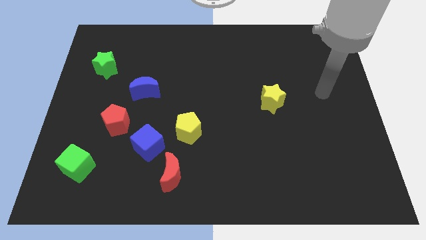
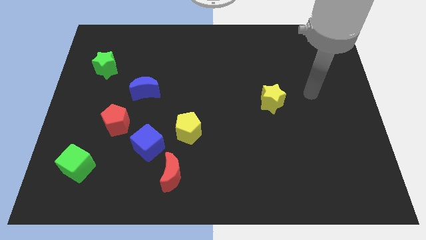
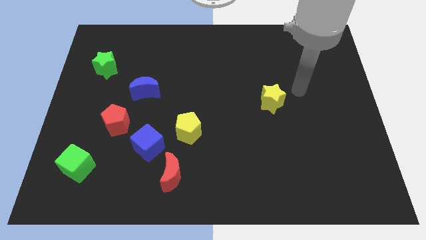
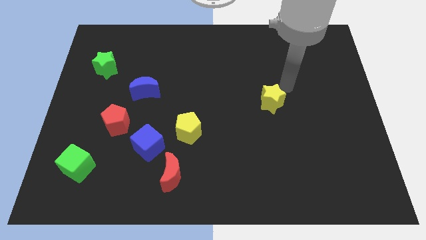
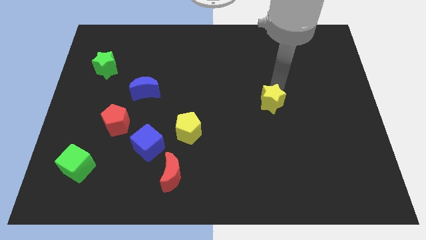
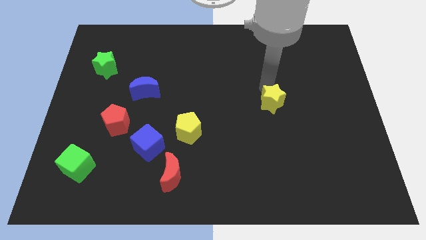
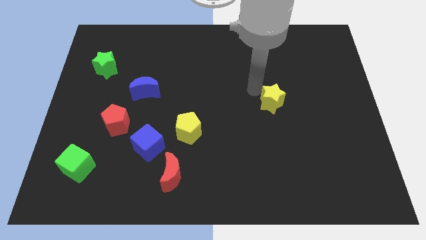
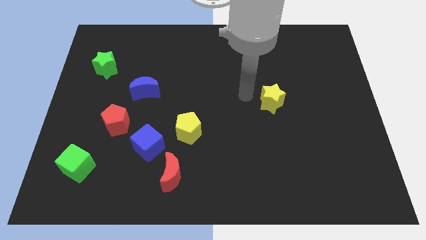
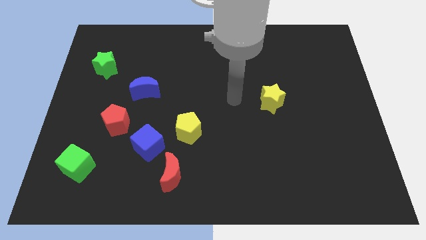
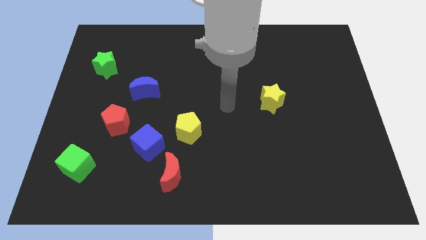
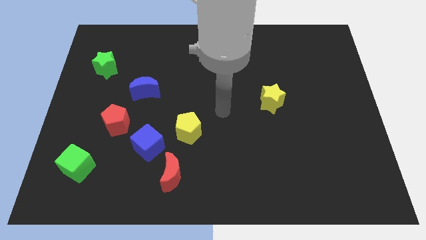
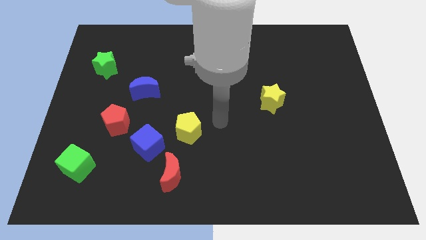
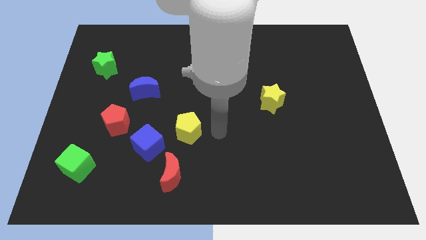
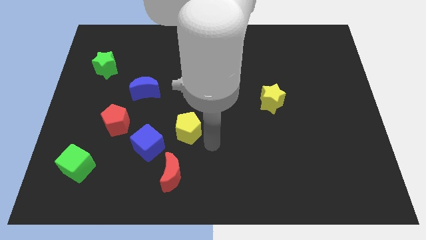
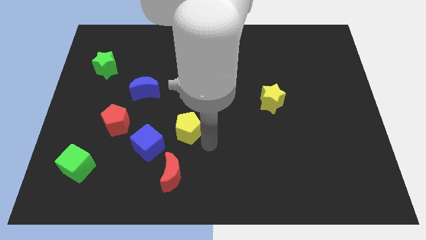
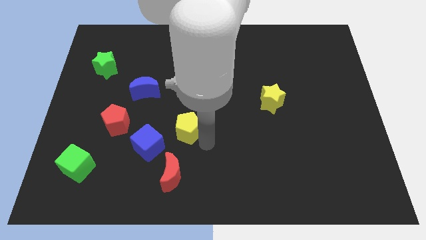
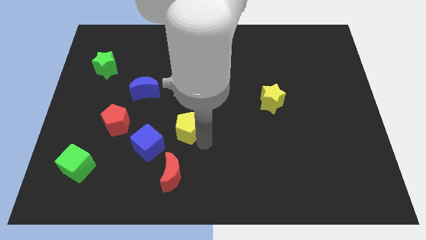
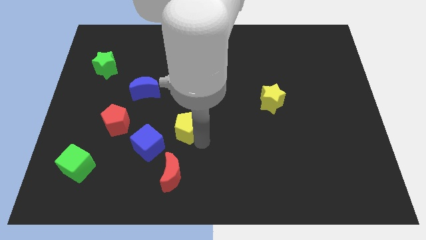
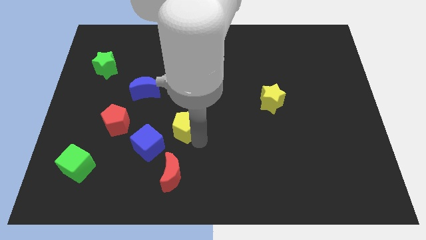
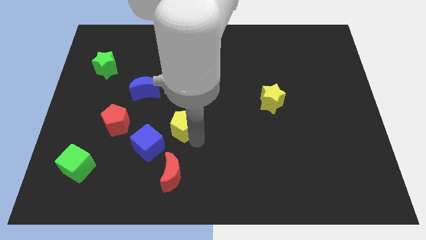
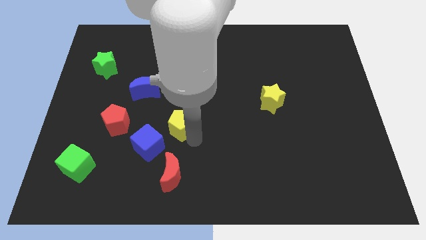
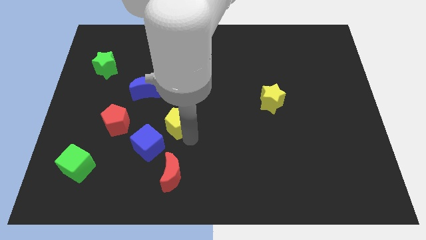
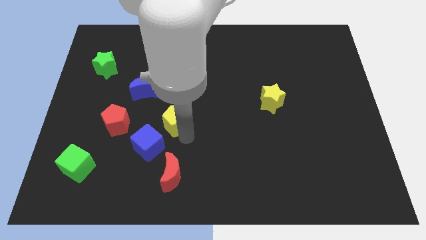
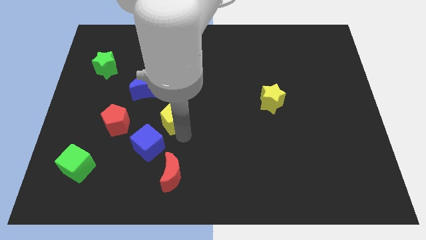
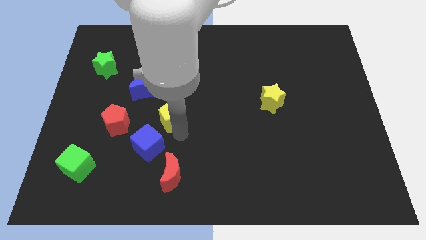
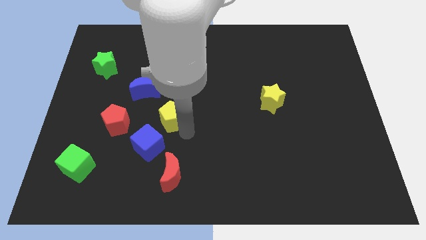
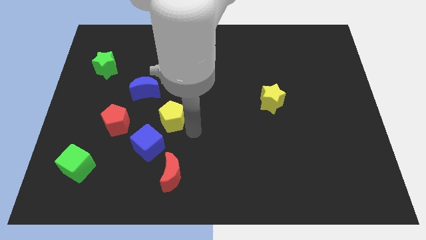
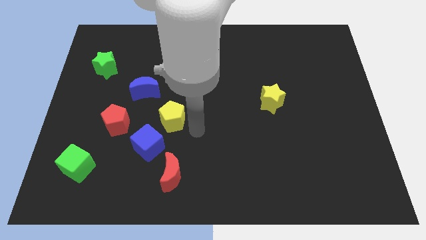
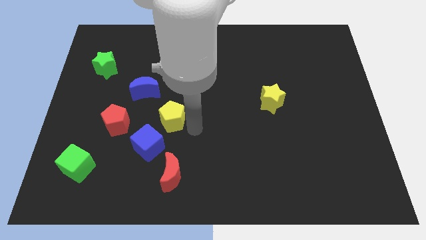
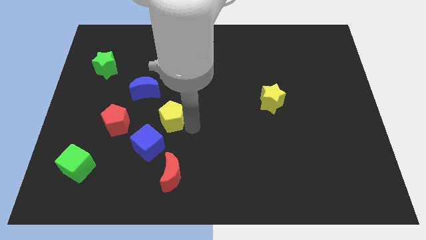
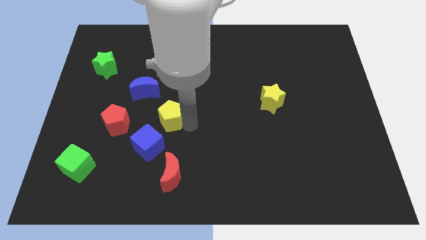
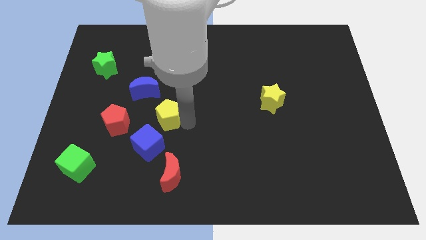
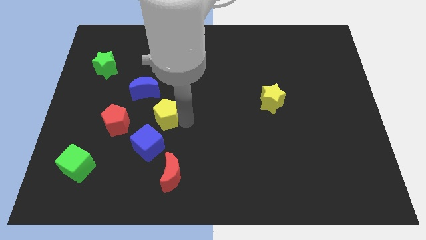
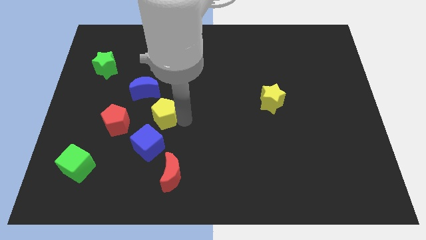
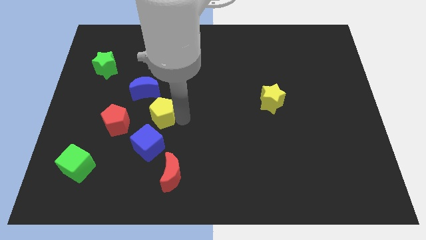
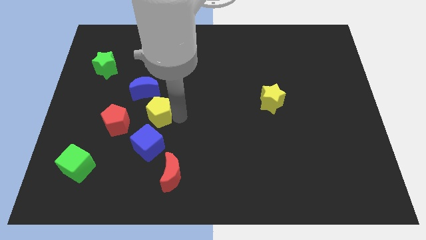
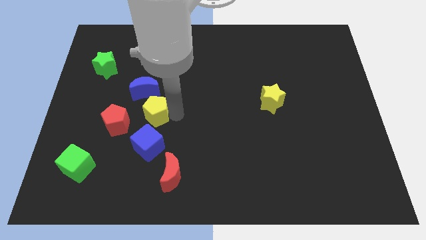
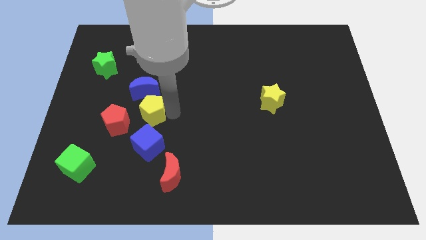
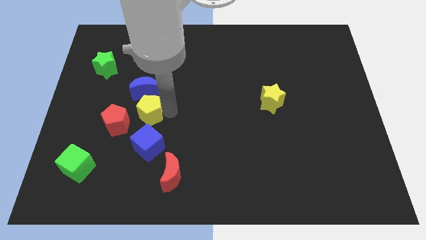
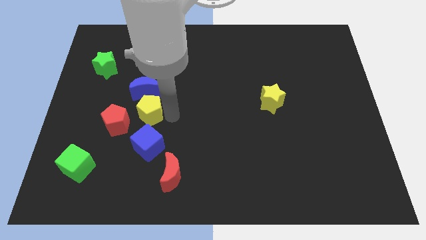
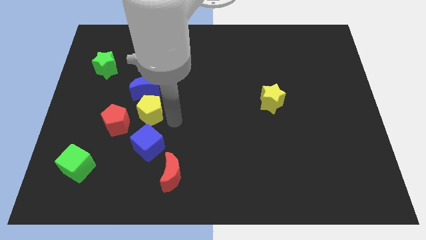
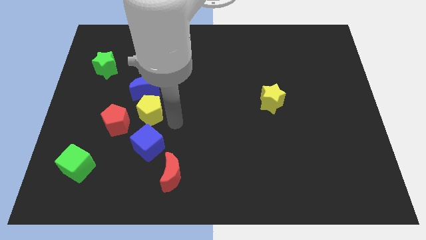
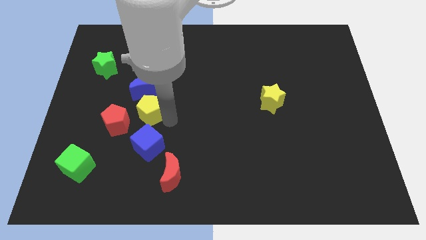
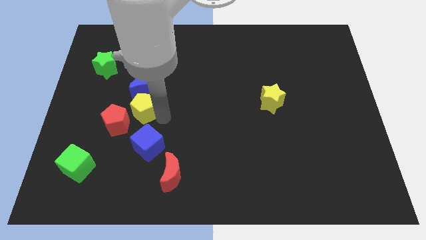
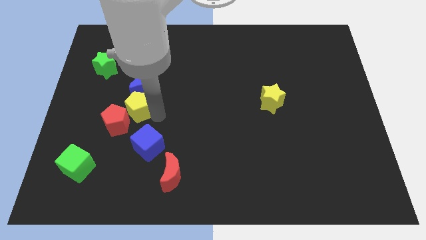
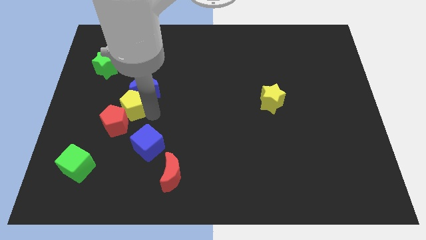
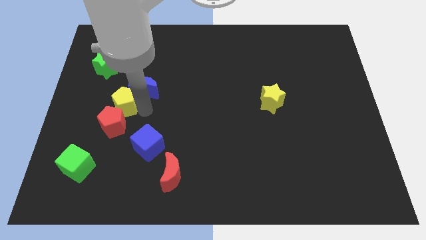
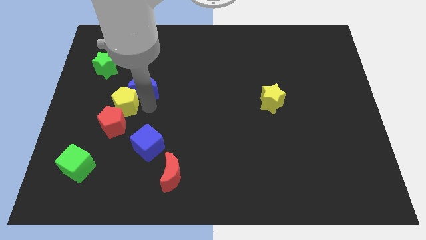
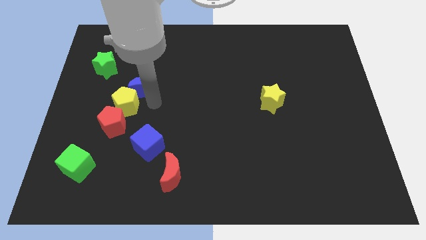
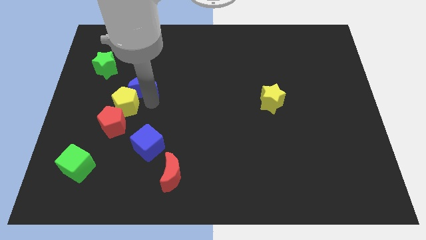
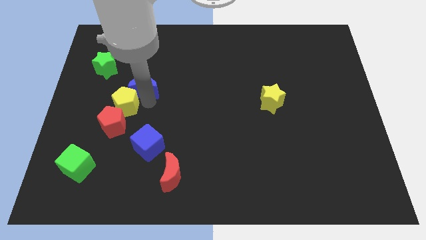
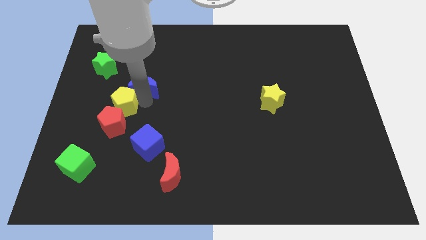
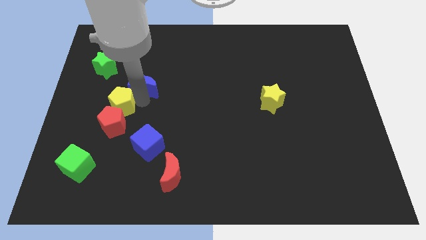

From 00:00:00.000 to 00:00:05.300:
put the yellow pentagon to the top left of the red pentagon
